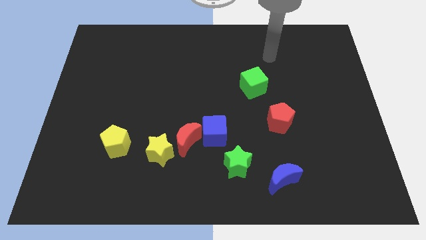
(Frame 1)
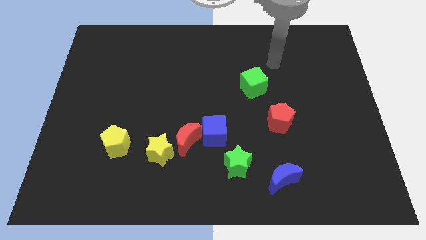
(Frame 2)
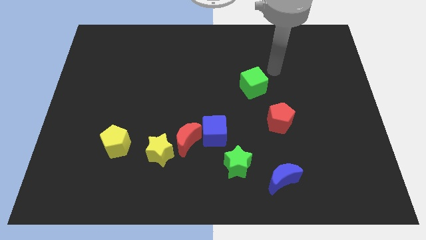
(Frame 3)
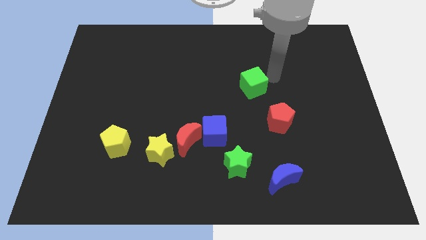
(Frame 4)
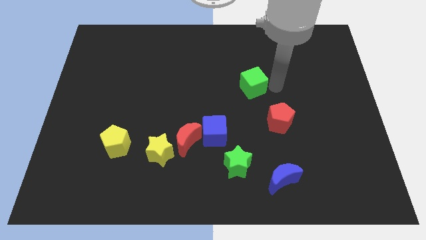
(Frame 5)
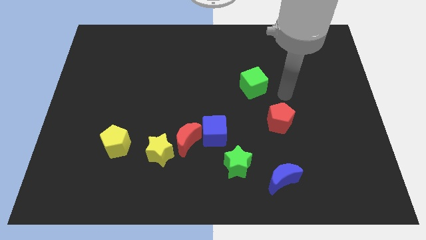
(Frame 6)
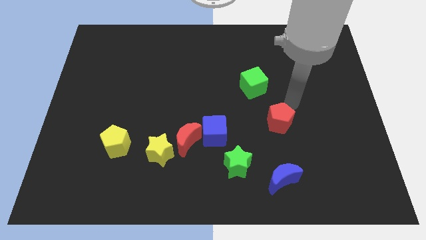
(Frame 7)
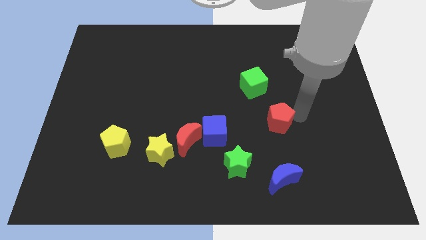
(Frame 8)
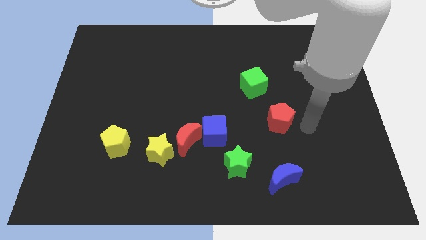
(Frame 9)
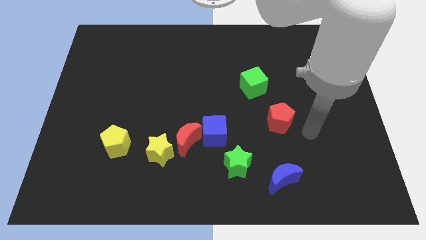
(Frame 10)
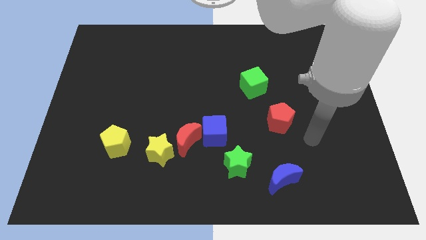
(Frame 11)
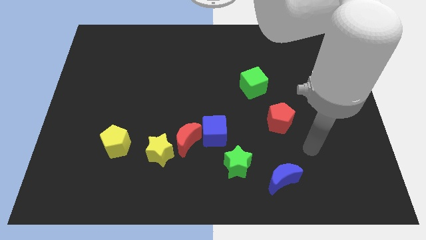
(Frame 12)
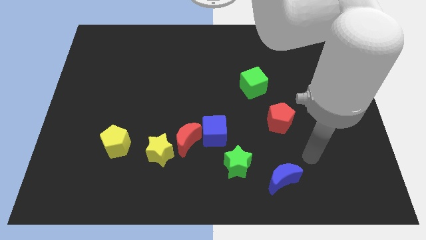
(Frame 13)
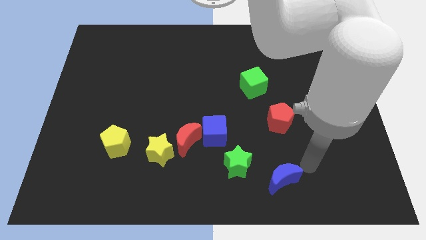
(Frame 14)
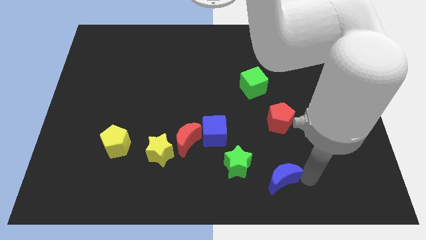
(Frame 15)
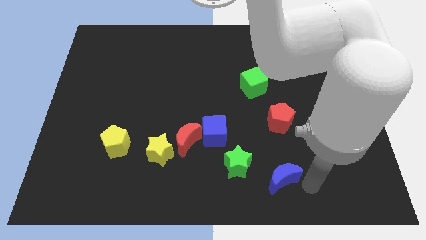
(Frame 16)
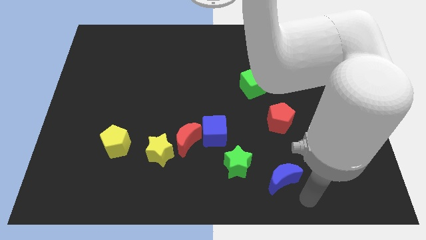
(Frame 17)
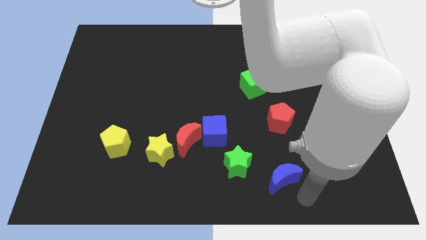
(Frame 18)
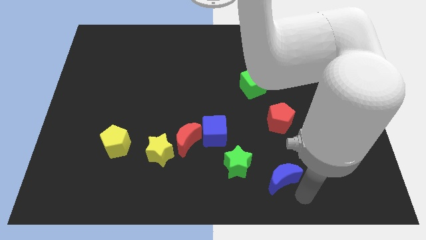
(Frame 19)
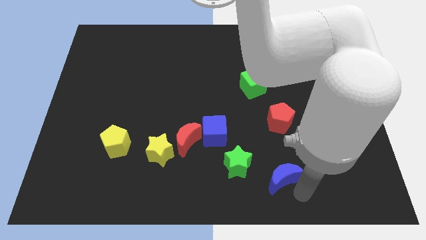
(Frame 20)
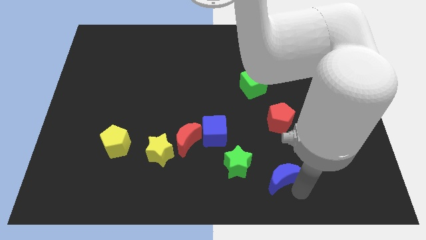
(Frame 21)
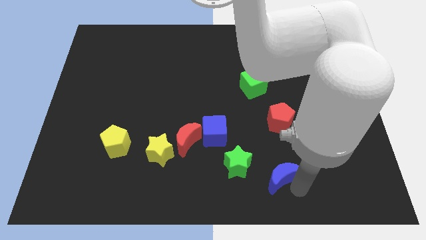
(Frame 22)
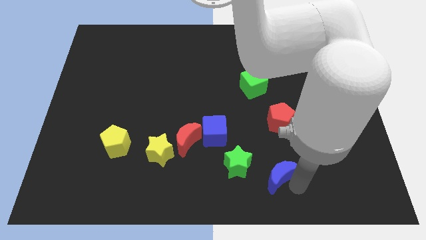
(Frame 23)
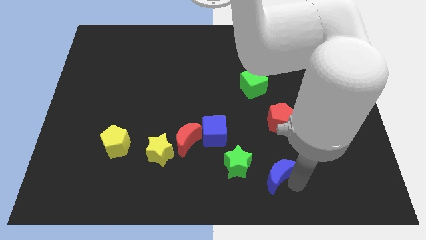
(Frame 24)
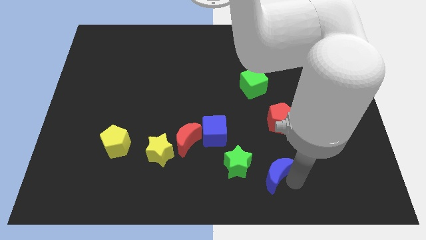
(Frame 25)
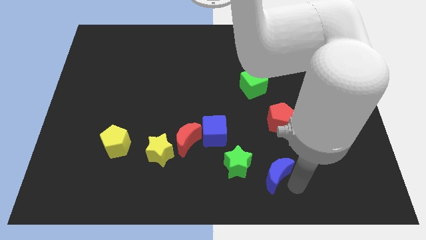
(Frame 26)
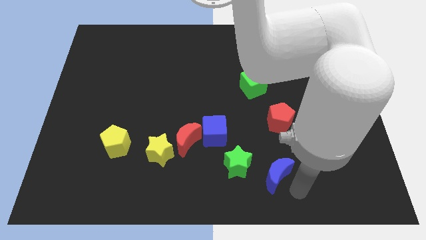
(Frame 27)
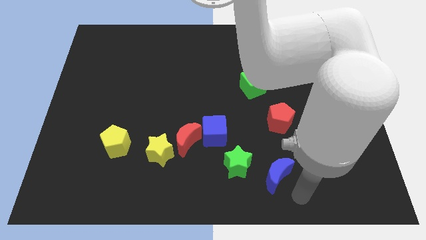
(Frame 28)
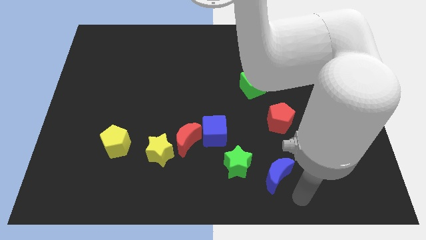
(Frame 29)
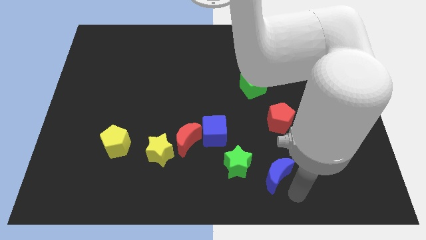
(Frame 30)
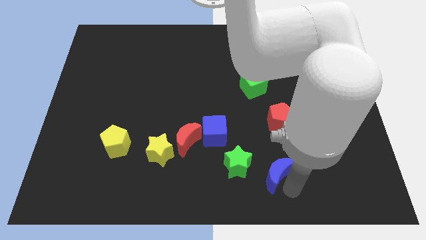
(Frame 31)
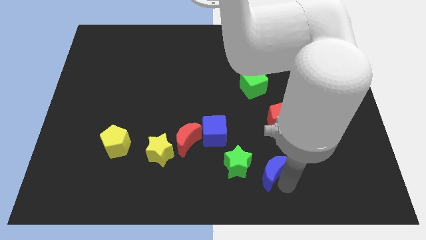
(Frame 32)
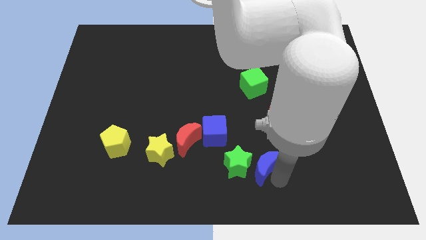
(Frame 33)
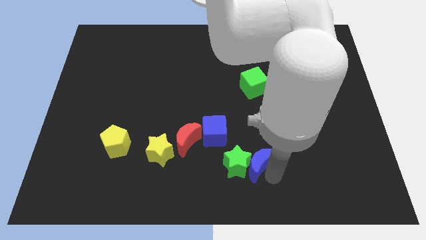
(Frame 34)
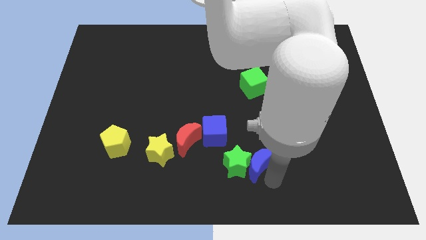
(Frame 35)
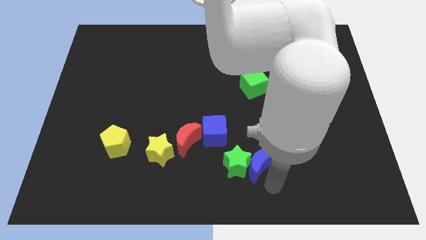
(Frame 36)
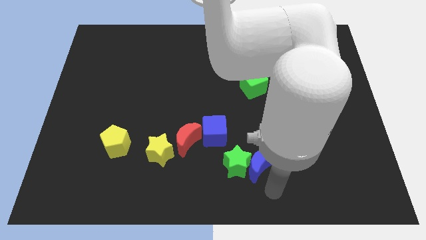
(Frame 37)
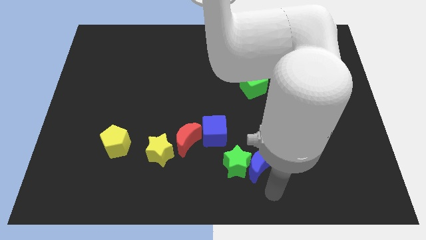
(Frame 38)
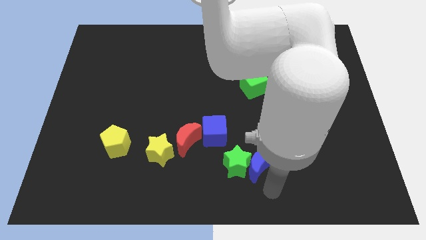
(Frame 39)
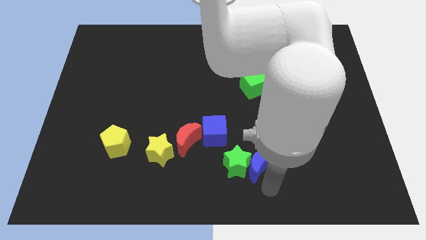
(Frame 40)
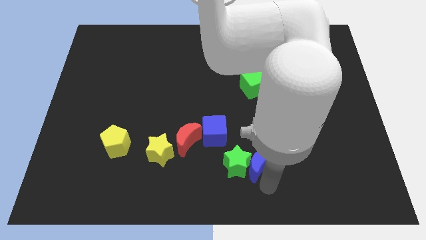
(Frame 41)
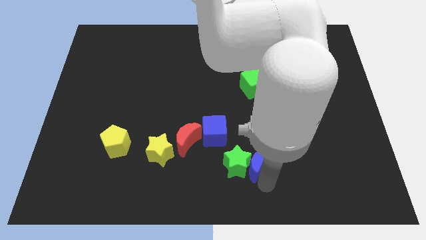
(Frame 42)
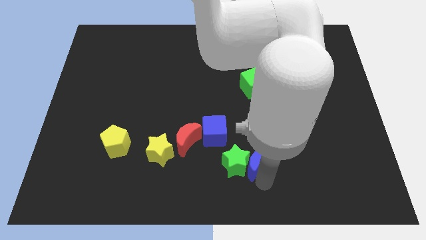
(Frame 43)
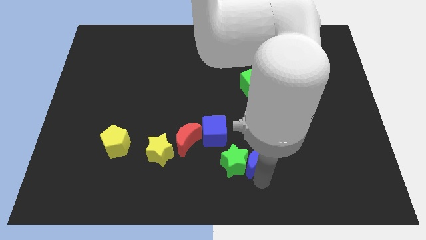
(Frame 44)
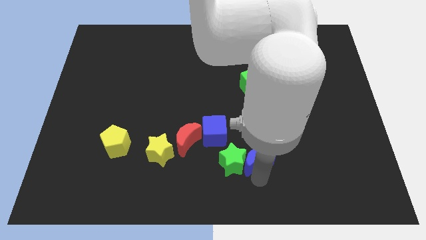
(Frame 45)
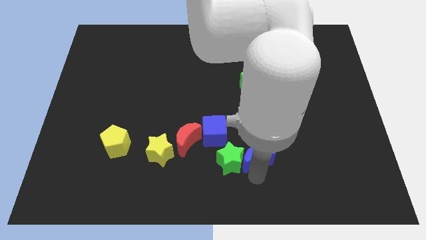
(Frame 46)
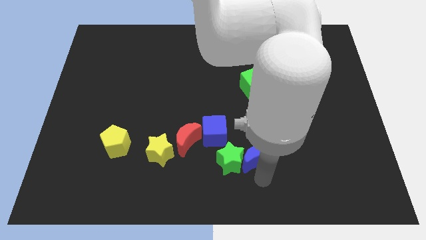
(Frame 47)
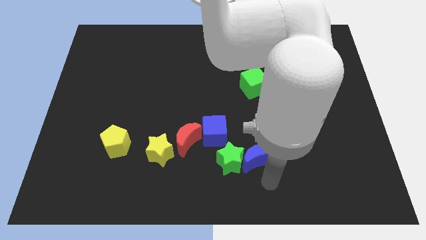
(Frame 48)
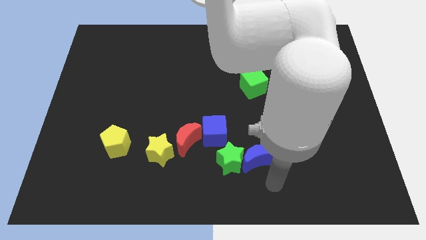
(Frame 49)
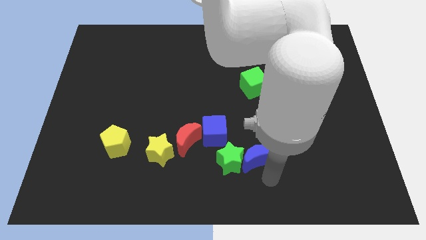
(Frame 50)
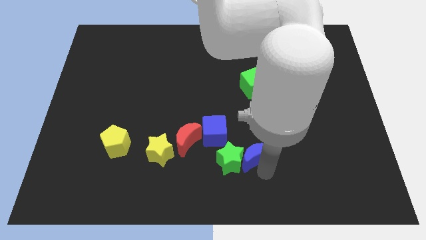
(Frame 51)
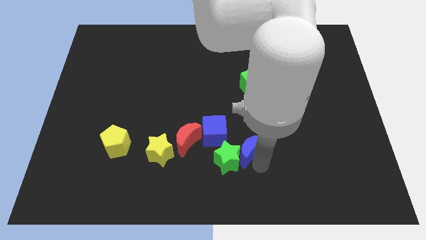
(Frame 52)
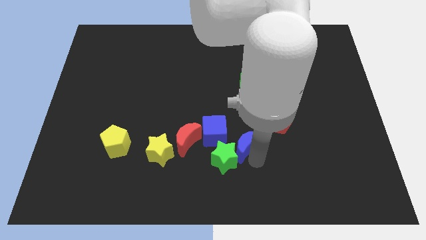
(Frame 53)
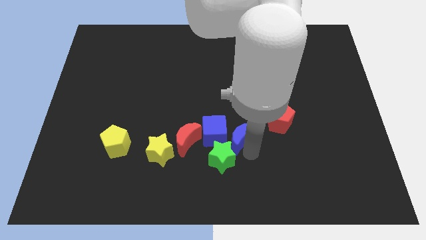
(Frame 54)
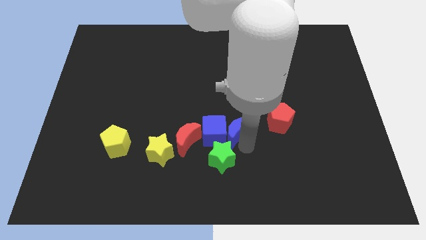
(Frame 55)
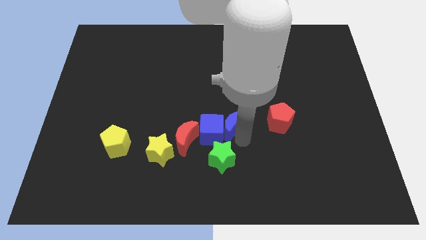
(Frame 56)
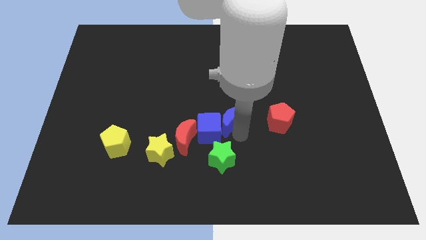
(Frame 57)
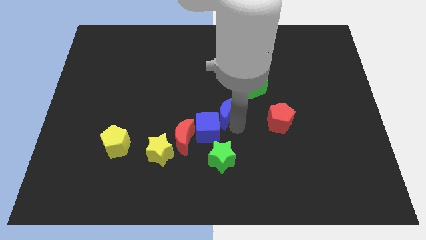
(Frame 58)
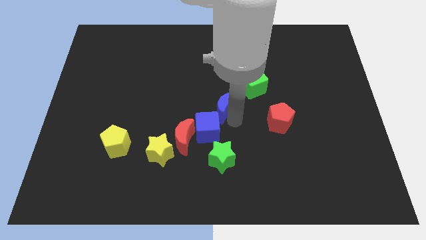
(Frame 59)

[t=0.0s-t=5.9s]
push the blue moon up and then to the left

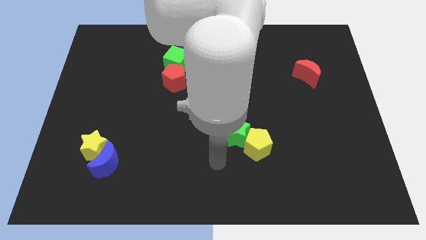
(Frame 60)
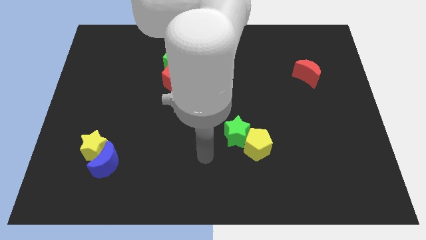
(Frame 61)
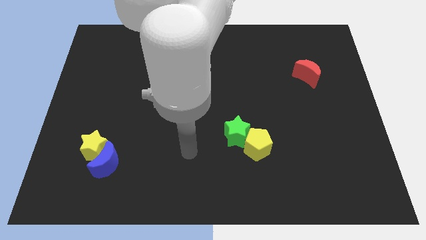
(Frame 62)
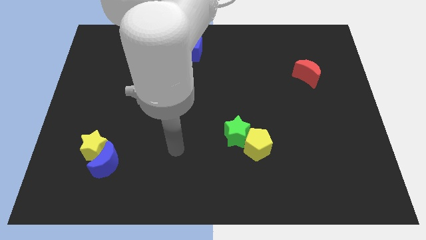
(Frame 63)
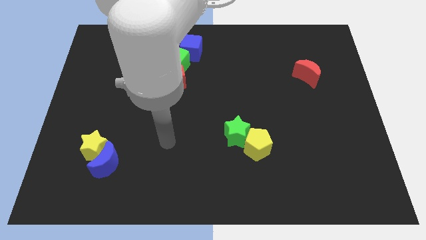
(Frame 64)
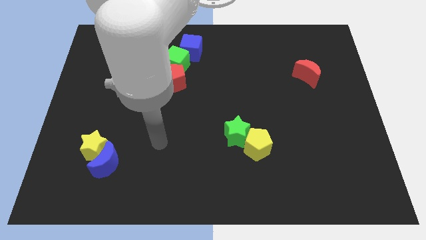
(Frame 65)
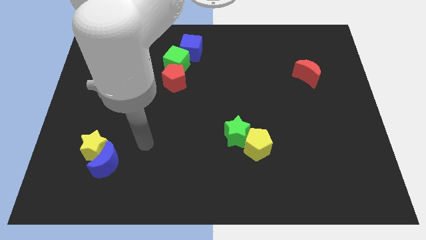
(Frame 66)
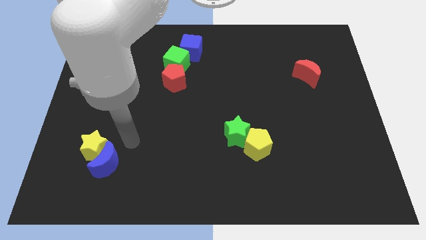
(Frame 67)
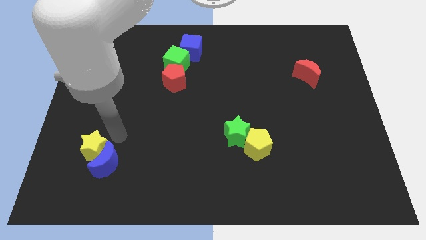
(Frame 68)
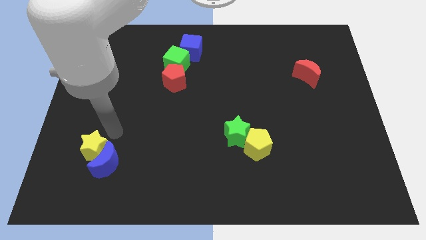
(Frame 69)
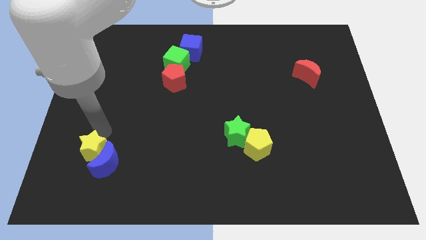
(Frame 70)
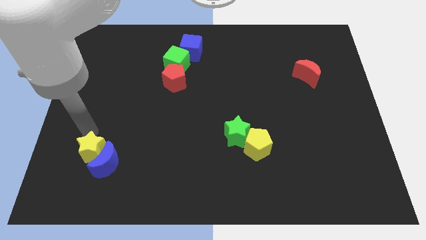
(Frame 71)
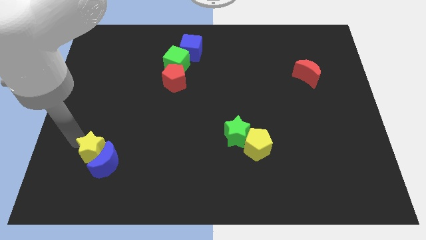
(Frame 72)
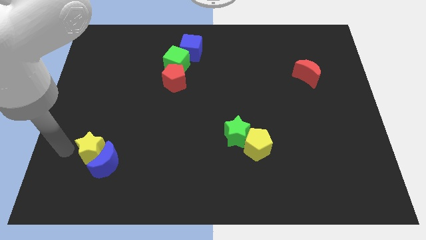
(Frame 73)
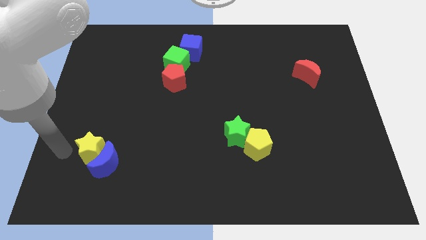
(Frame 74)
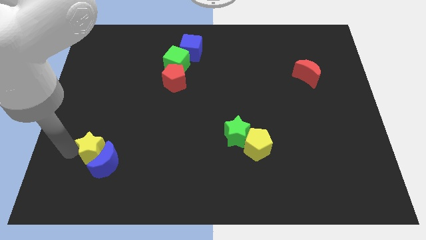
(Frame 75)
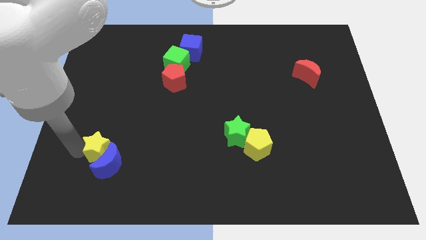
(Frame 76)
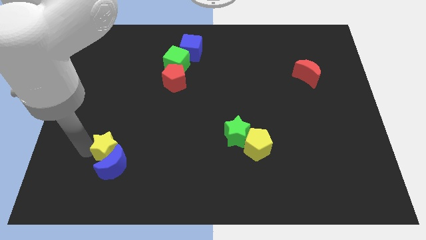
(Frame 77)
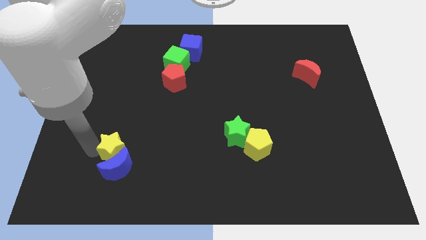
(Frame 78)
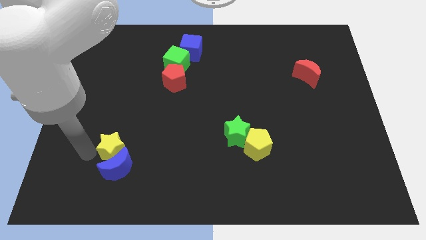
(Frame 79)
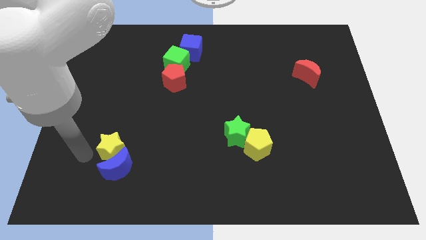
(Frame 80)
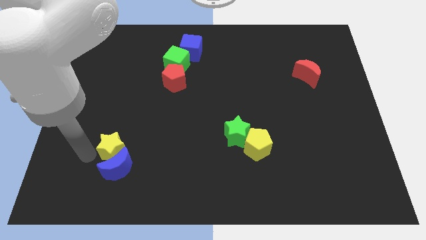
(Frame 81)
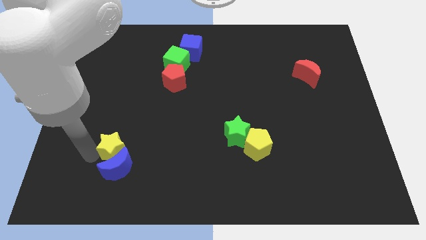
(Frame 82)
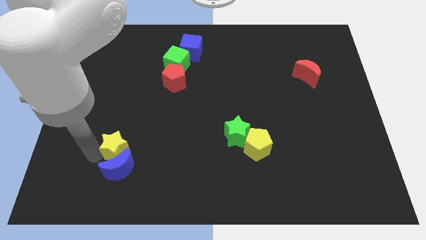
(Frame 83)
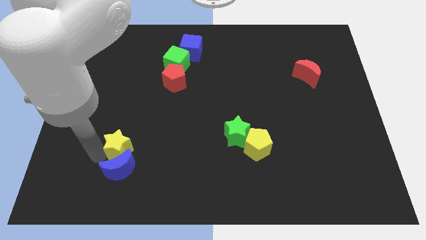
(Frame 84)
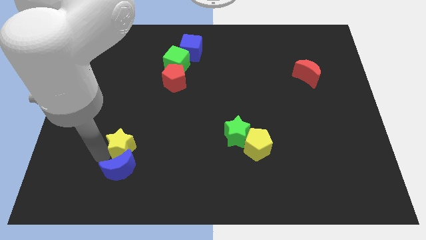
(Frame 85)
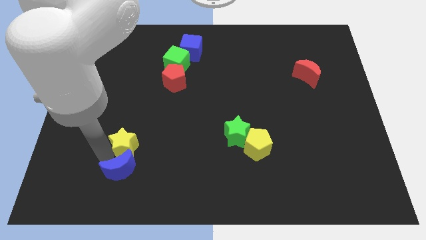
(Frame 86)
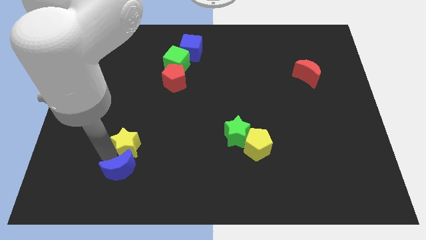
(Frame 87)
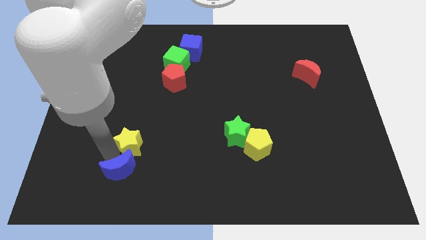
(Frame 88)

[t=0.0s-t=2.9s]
move the yellow star right a little
